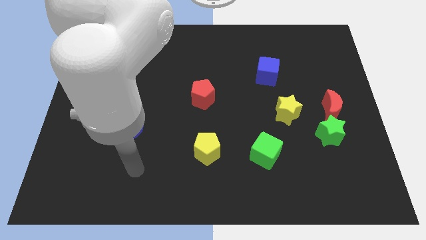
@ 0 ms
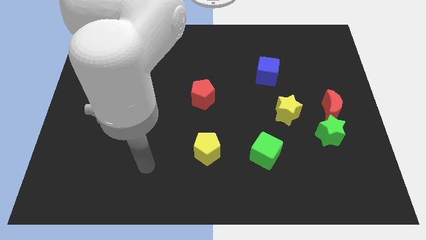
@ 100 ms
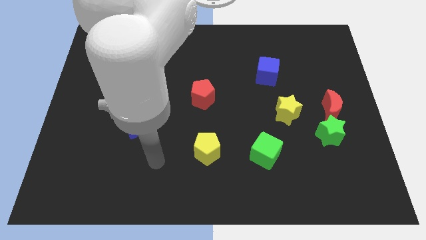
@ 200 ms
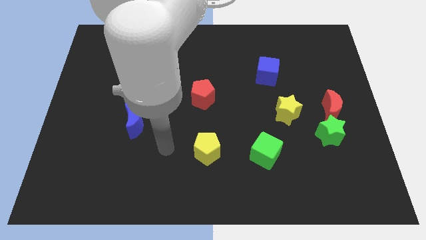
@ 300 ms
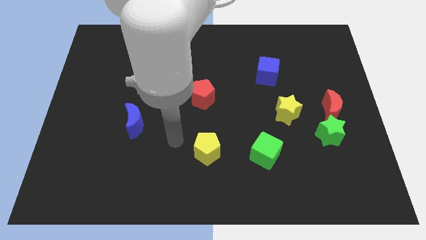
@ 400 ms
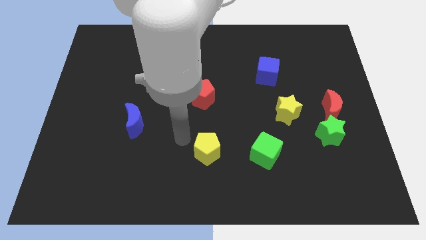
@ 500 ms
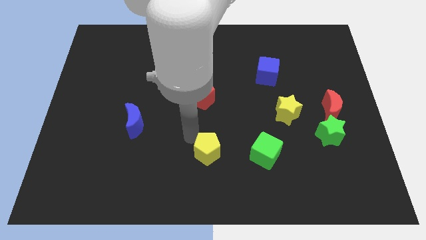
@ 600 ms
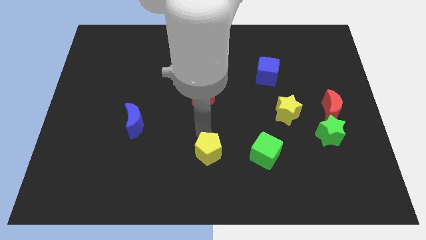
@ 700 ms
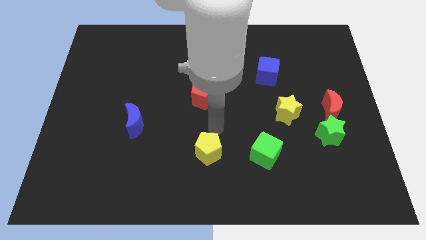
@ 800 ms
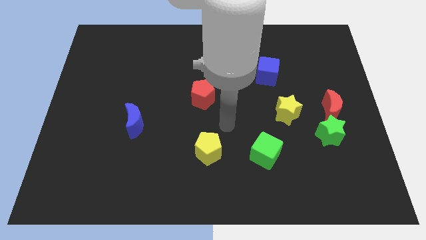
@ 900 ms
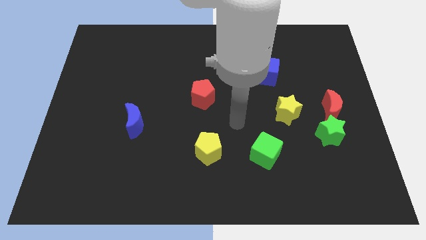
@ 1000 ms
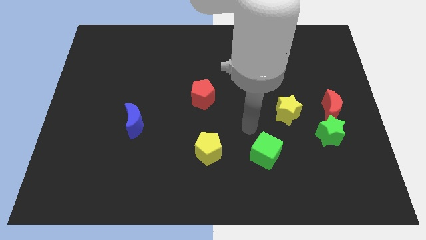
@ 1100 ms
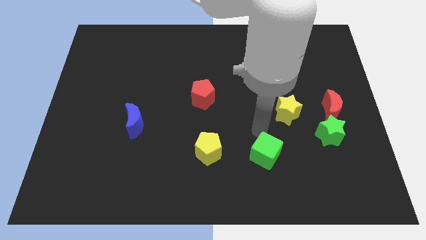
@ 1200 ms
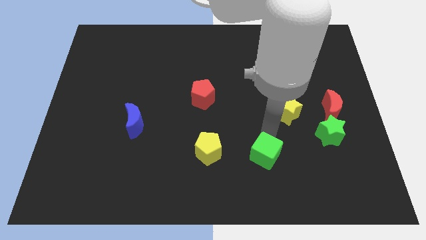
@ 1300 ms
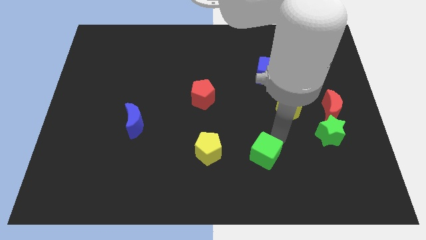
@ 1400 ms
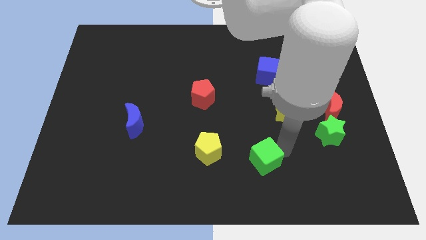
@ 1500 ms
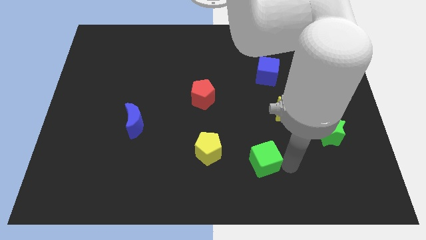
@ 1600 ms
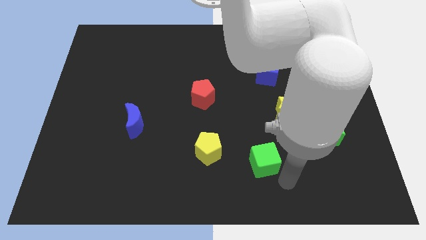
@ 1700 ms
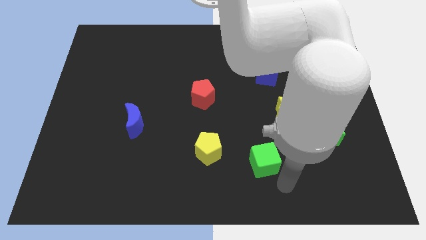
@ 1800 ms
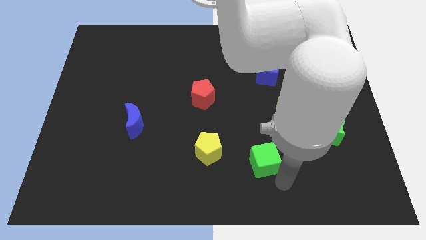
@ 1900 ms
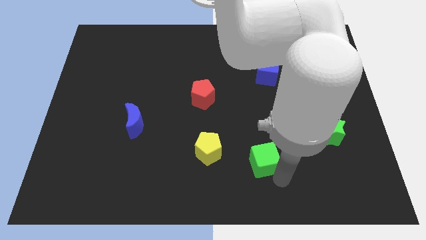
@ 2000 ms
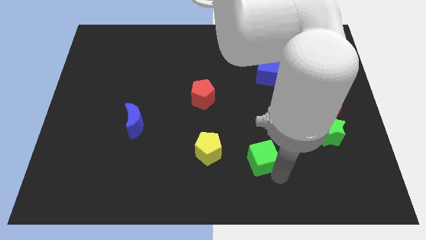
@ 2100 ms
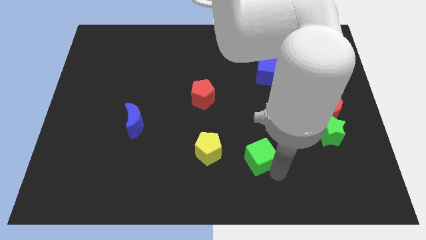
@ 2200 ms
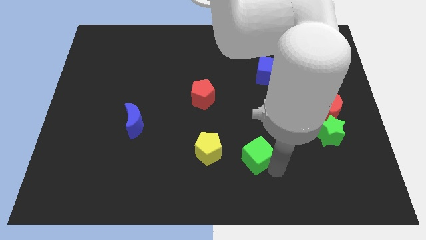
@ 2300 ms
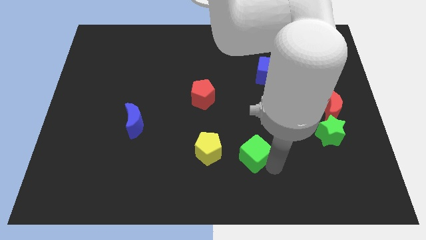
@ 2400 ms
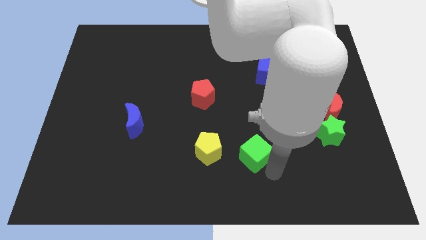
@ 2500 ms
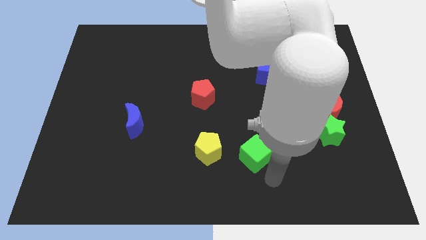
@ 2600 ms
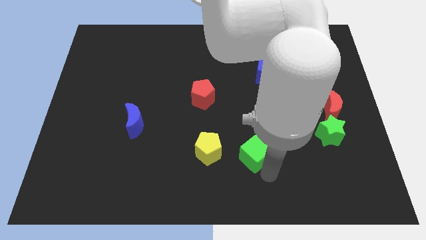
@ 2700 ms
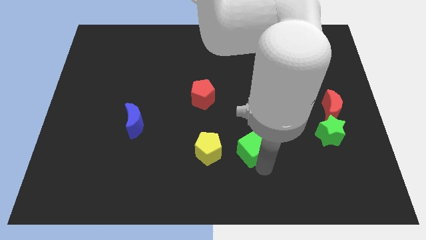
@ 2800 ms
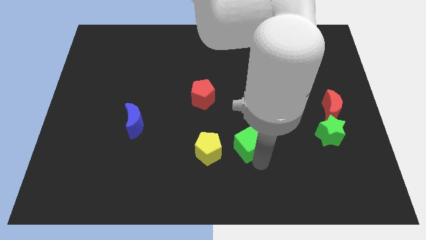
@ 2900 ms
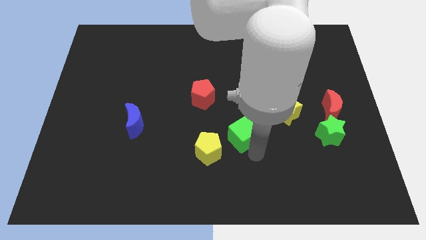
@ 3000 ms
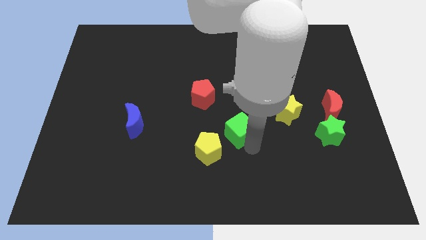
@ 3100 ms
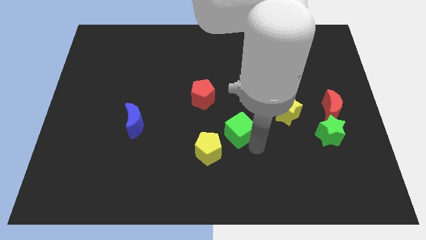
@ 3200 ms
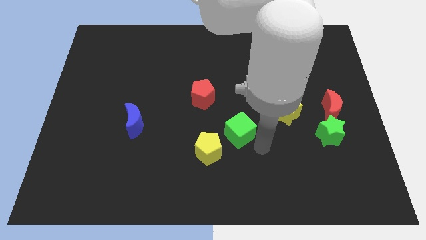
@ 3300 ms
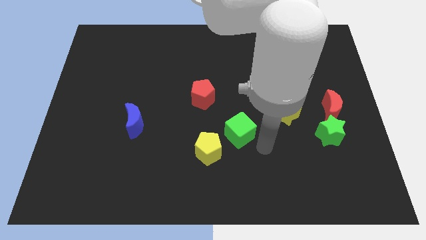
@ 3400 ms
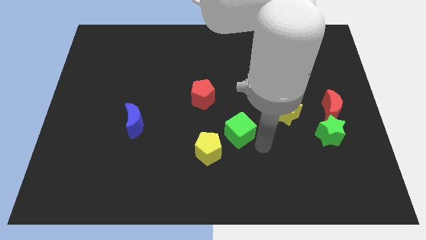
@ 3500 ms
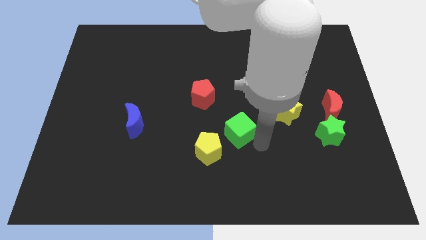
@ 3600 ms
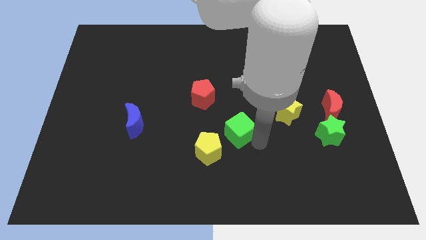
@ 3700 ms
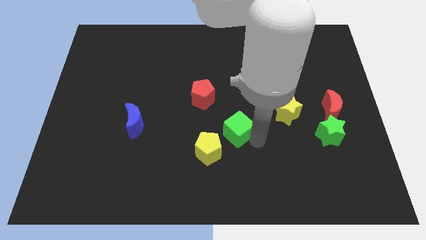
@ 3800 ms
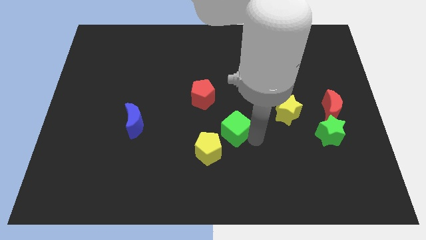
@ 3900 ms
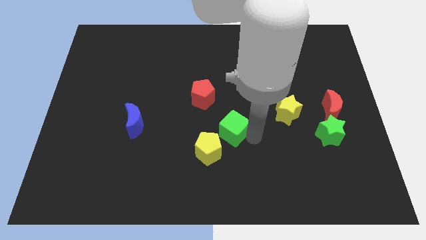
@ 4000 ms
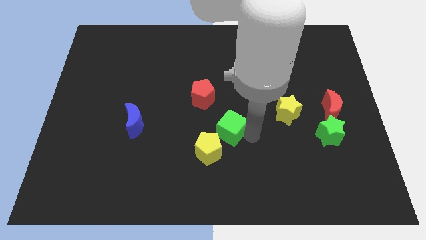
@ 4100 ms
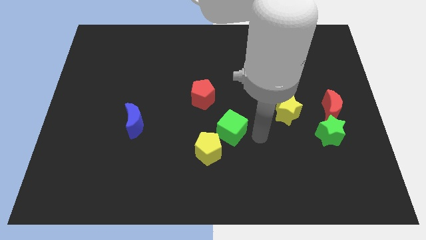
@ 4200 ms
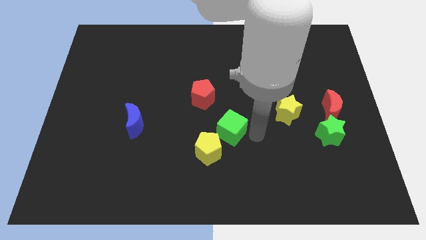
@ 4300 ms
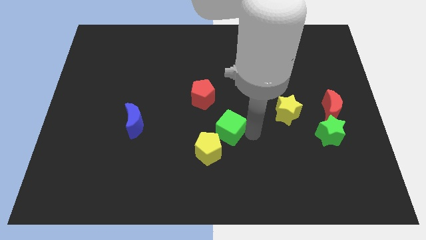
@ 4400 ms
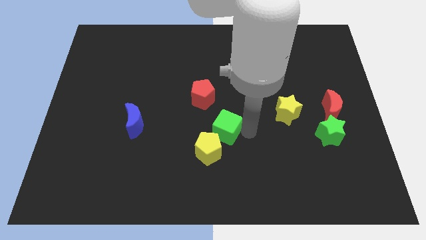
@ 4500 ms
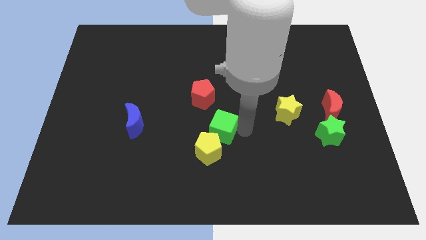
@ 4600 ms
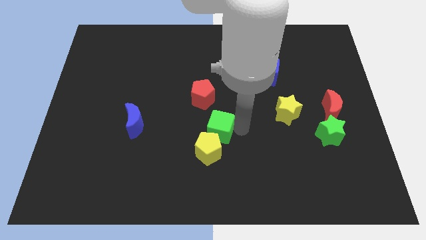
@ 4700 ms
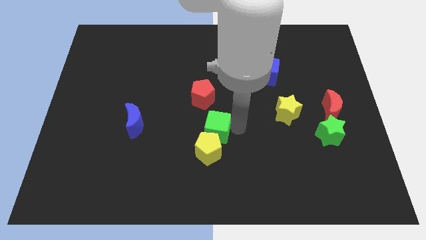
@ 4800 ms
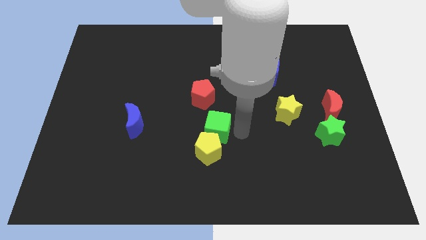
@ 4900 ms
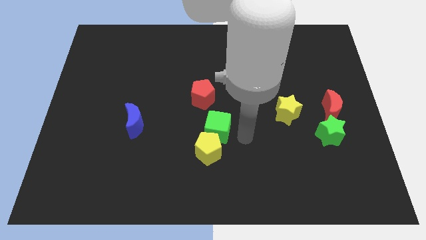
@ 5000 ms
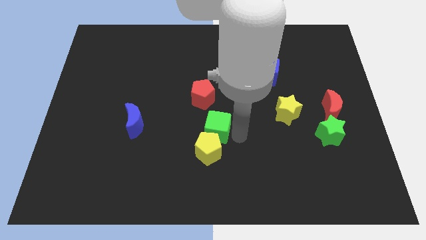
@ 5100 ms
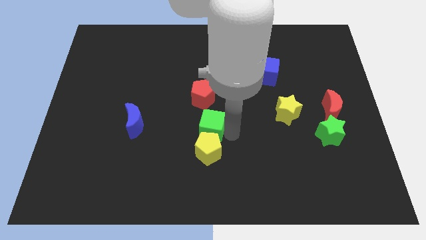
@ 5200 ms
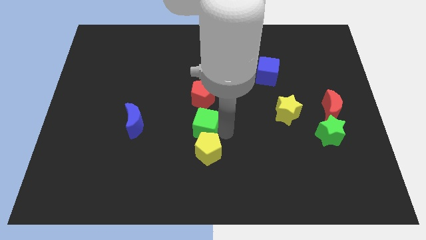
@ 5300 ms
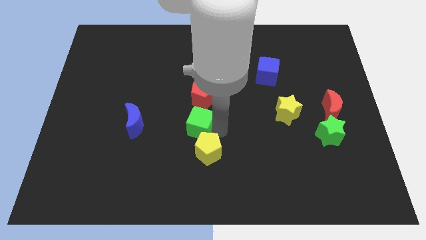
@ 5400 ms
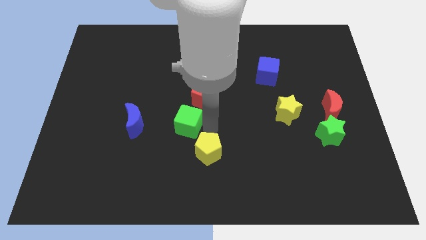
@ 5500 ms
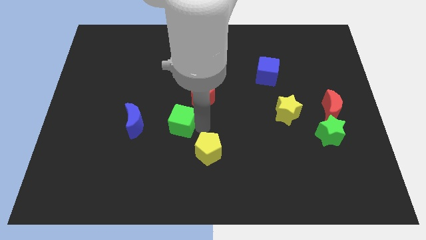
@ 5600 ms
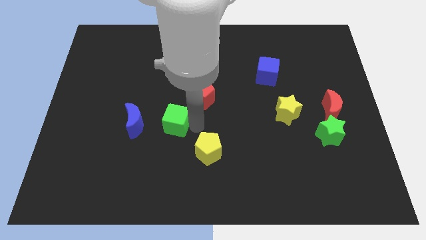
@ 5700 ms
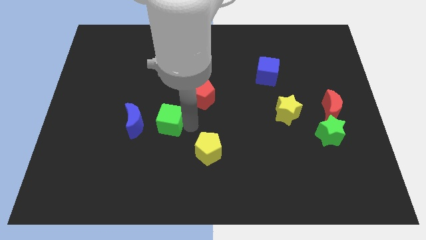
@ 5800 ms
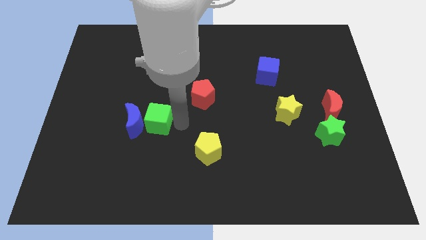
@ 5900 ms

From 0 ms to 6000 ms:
move the green cube next to the blue moon

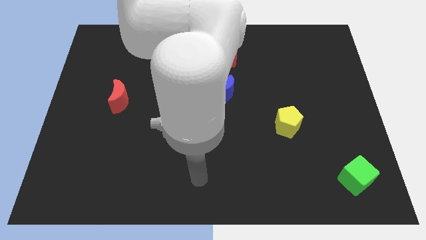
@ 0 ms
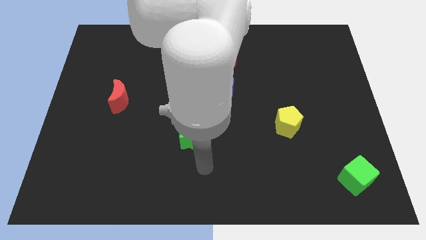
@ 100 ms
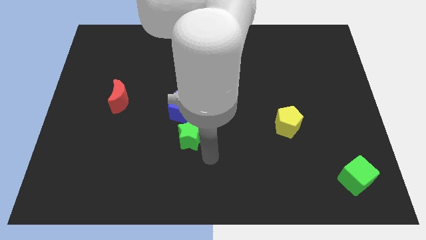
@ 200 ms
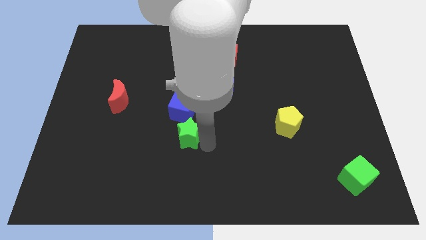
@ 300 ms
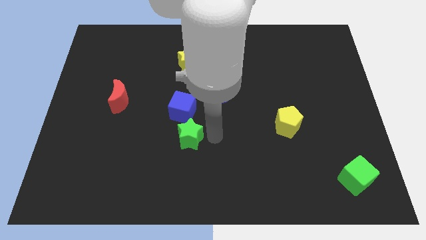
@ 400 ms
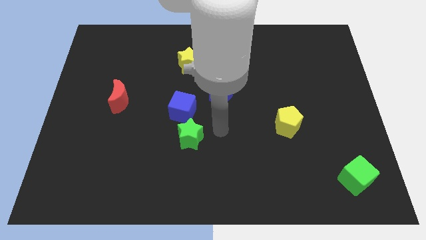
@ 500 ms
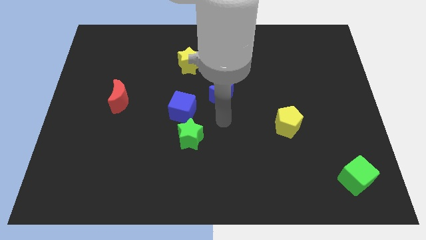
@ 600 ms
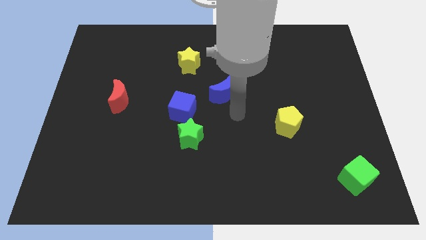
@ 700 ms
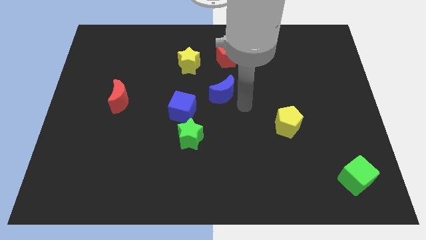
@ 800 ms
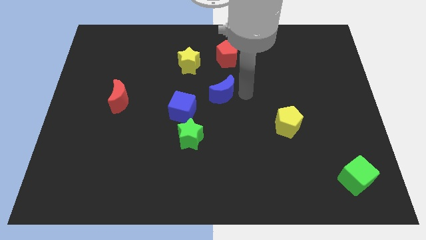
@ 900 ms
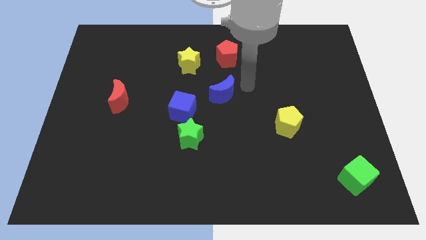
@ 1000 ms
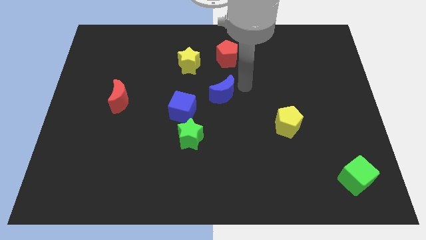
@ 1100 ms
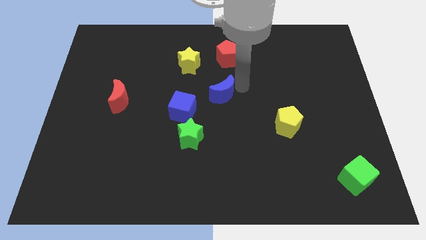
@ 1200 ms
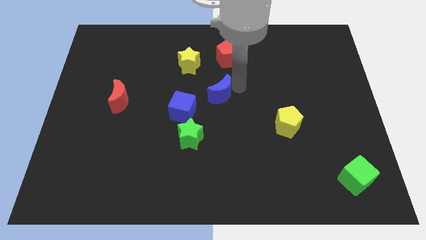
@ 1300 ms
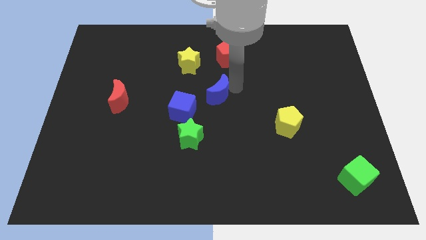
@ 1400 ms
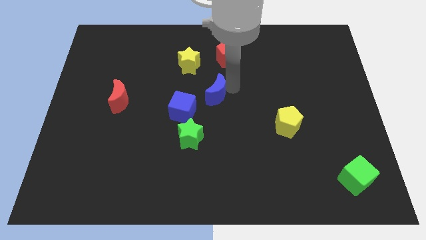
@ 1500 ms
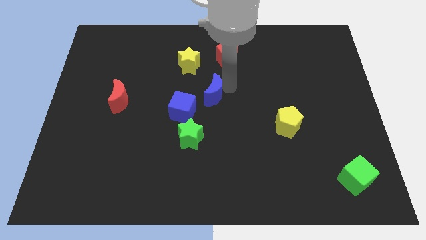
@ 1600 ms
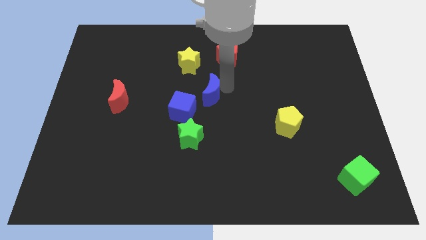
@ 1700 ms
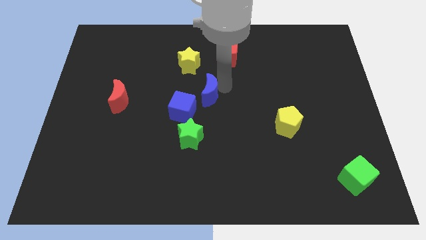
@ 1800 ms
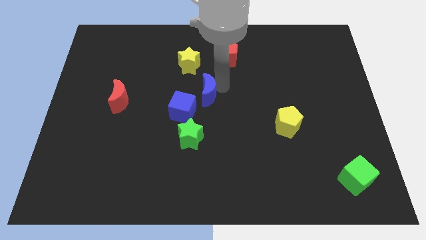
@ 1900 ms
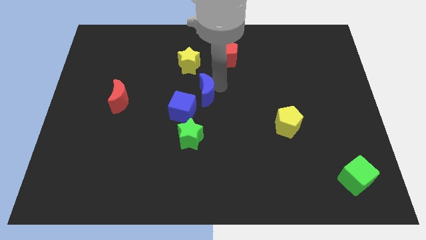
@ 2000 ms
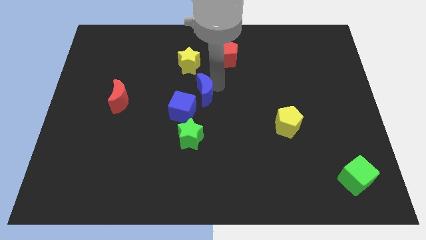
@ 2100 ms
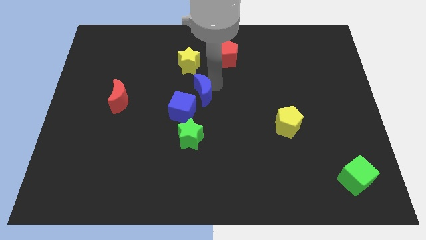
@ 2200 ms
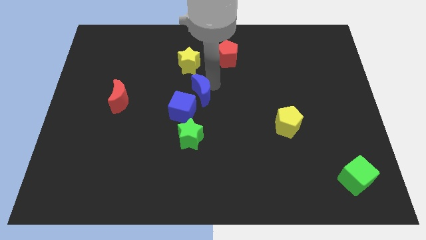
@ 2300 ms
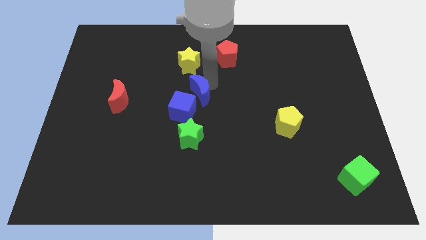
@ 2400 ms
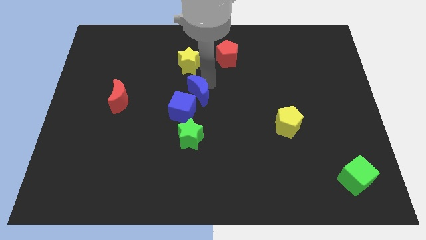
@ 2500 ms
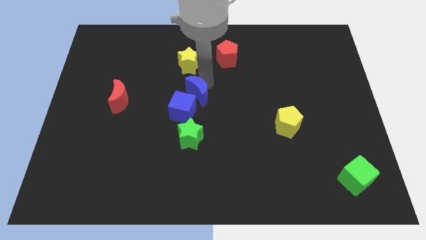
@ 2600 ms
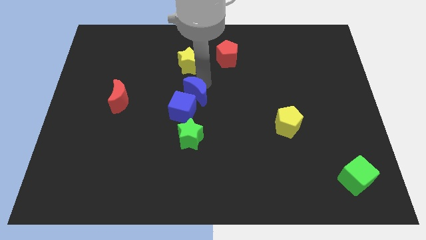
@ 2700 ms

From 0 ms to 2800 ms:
slide the blue moon to the blue cube
